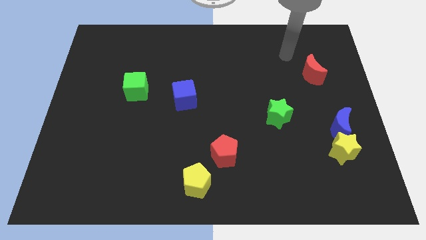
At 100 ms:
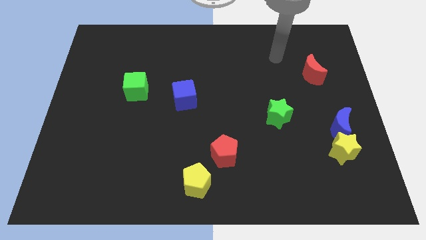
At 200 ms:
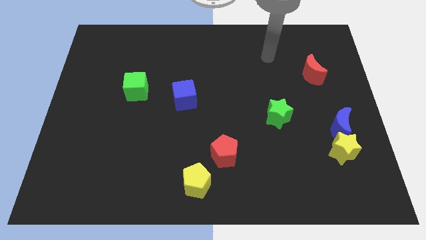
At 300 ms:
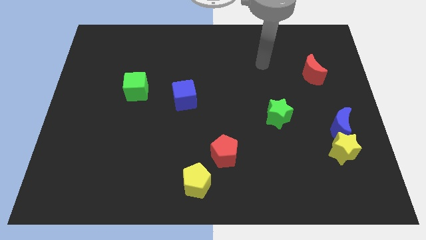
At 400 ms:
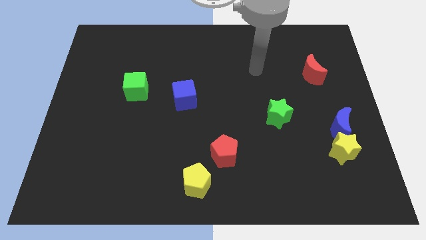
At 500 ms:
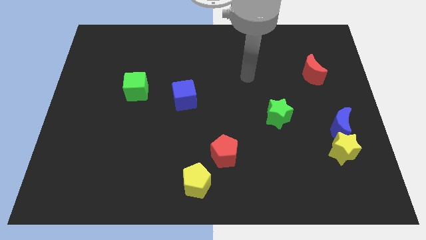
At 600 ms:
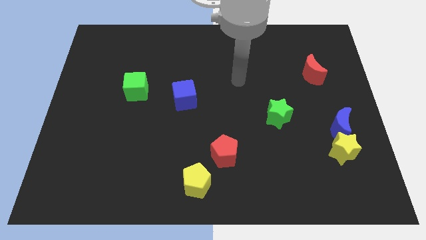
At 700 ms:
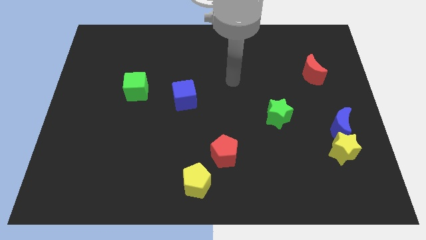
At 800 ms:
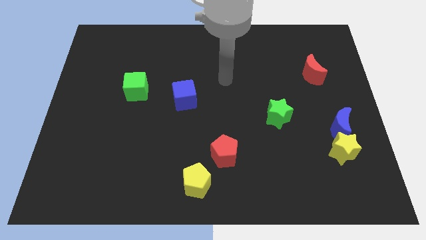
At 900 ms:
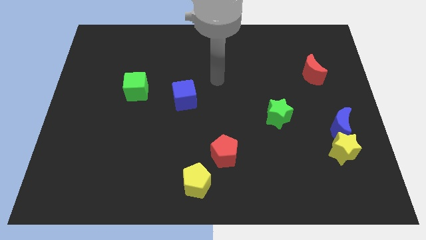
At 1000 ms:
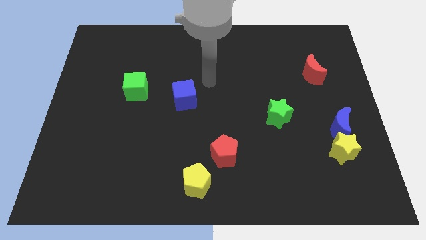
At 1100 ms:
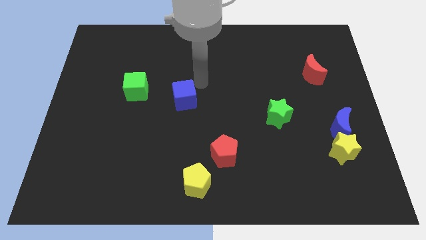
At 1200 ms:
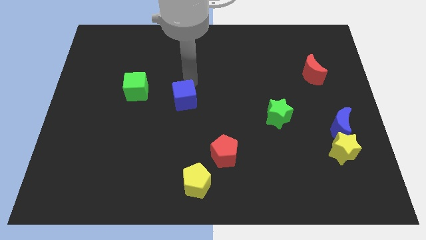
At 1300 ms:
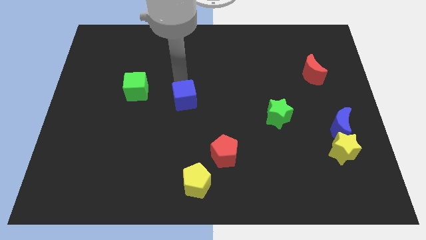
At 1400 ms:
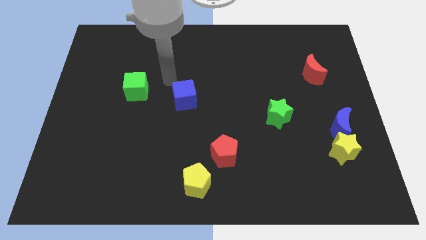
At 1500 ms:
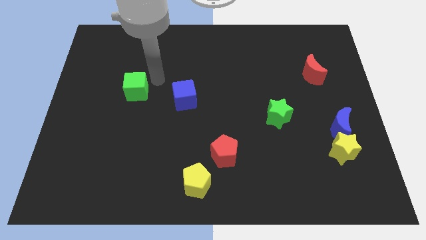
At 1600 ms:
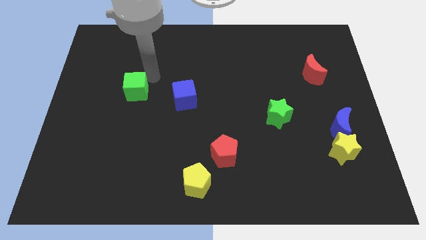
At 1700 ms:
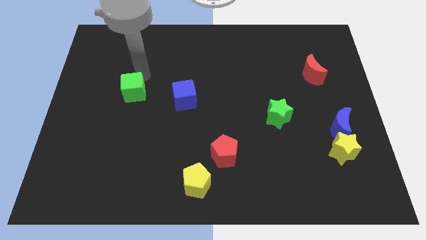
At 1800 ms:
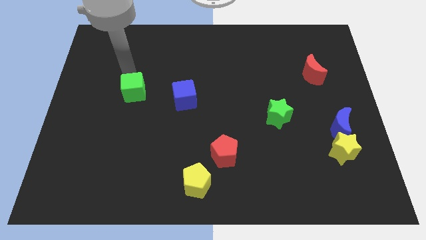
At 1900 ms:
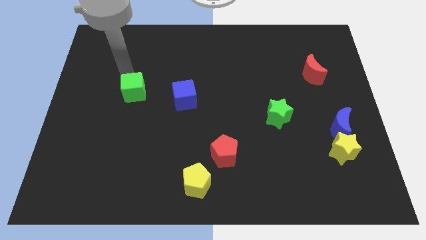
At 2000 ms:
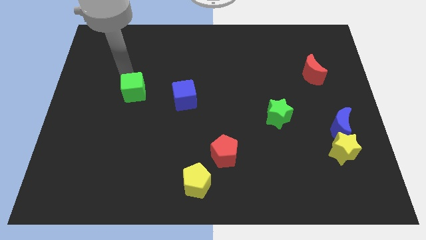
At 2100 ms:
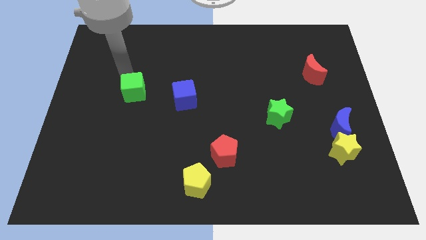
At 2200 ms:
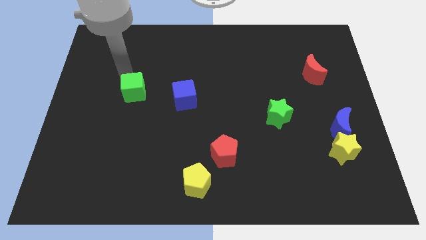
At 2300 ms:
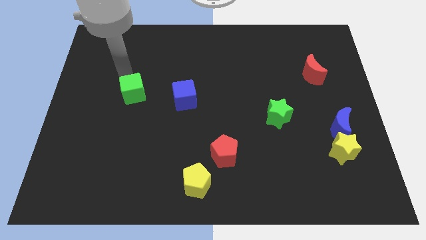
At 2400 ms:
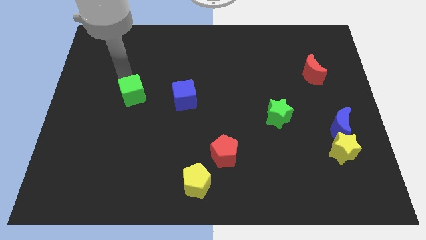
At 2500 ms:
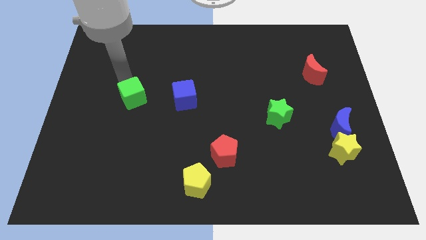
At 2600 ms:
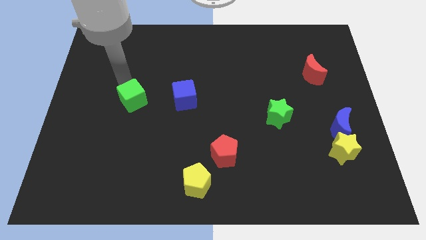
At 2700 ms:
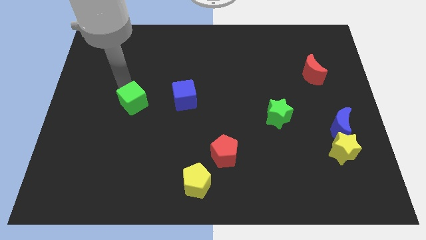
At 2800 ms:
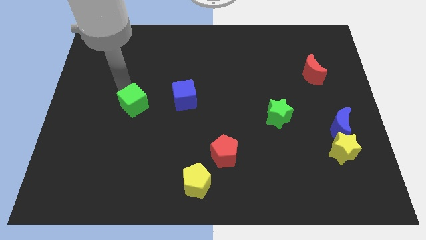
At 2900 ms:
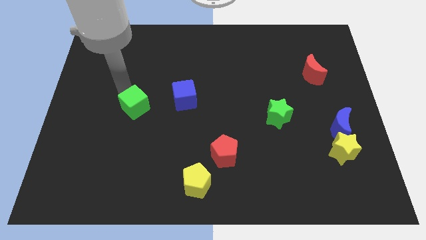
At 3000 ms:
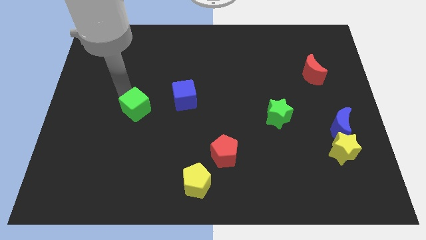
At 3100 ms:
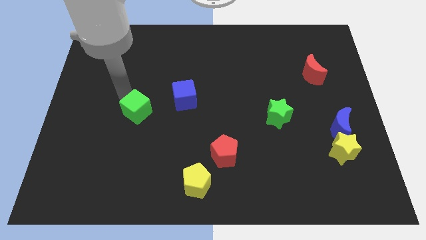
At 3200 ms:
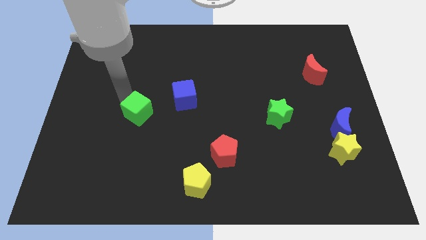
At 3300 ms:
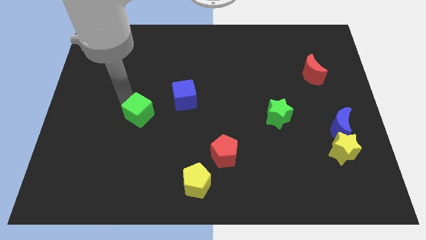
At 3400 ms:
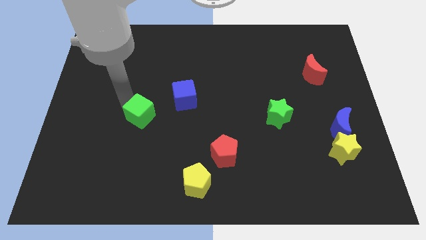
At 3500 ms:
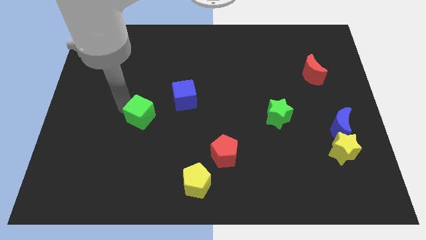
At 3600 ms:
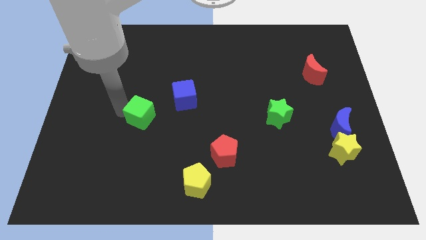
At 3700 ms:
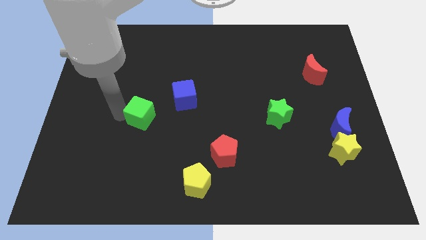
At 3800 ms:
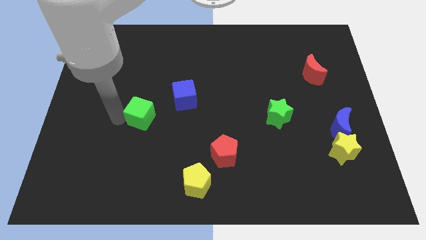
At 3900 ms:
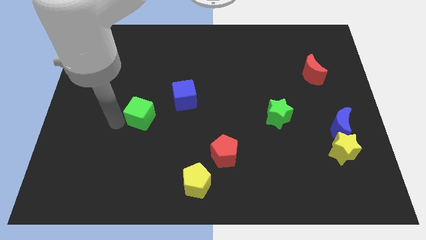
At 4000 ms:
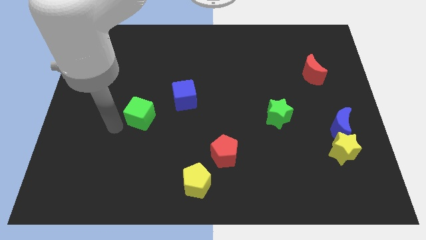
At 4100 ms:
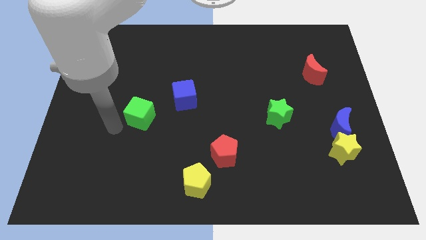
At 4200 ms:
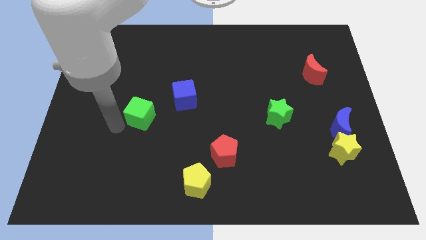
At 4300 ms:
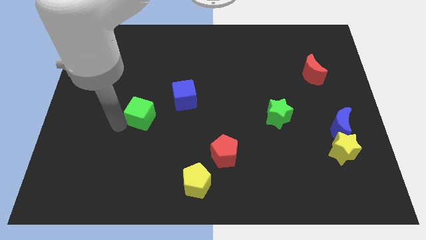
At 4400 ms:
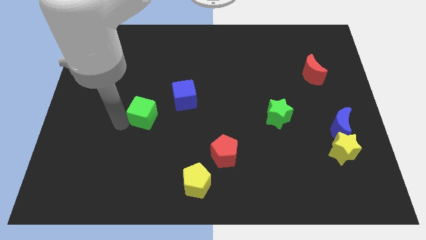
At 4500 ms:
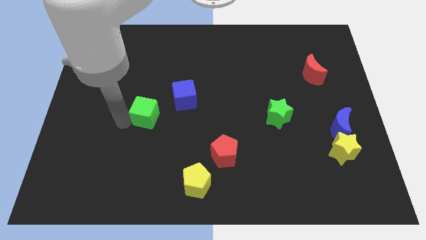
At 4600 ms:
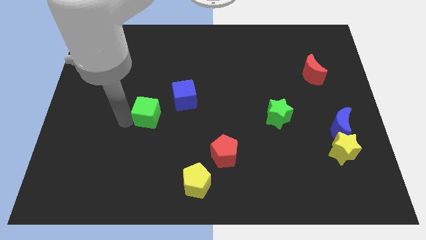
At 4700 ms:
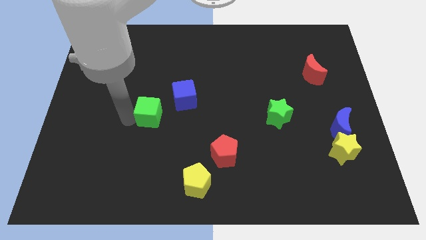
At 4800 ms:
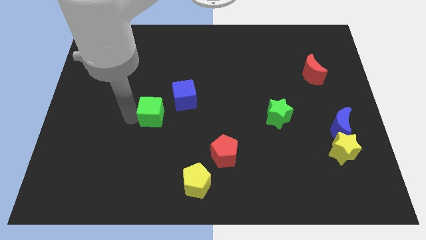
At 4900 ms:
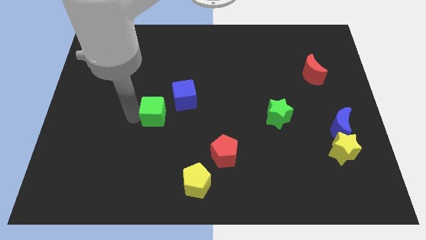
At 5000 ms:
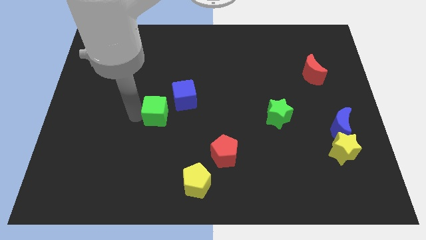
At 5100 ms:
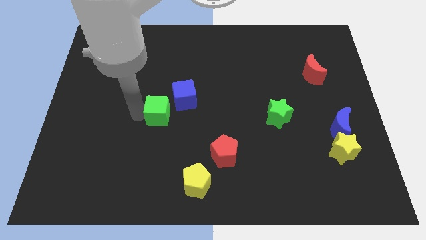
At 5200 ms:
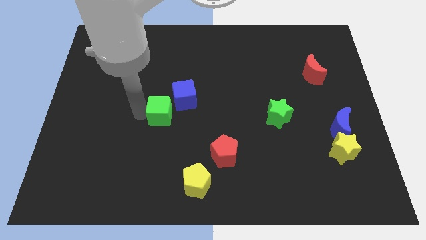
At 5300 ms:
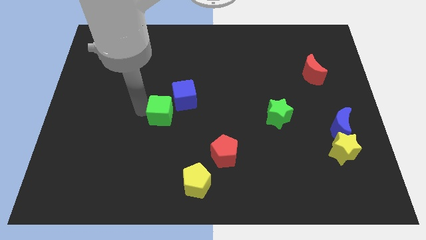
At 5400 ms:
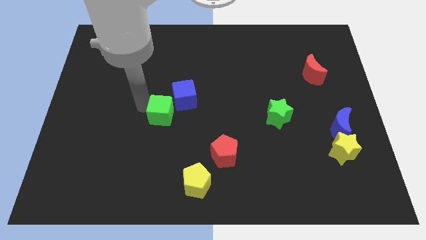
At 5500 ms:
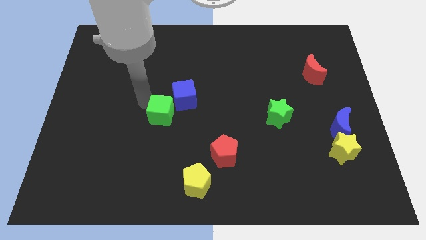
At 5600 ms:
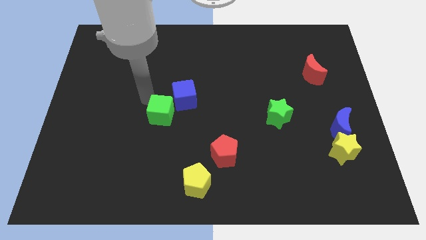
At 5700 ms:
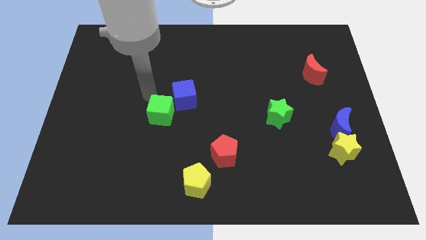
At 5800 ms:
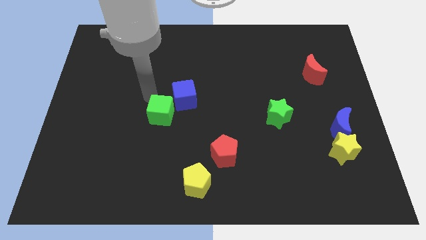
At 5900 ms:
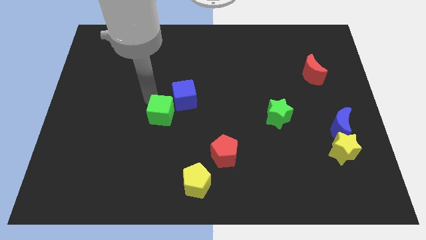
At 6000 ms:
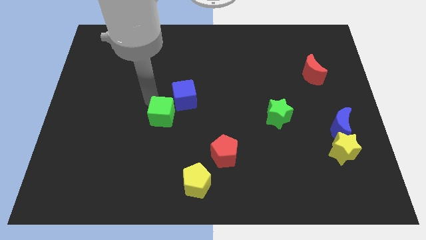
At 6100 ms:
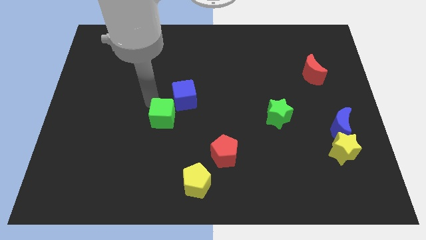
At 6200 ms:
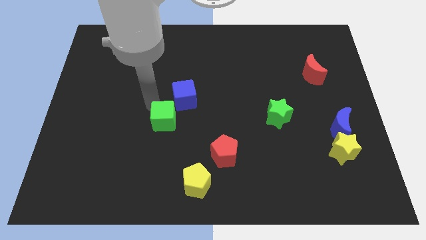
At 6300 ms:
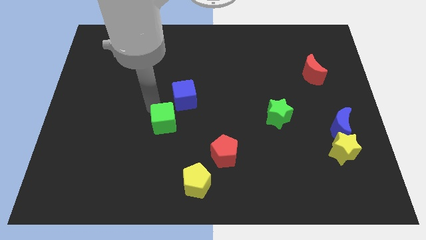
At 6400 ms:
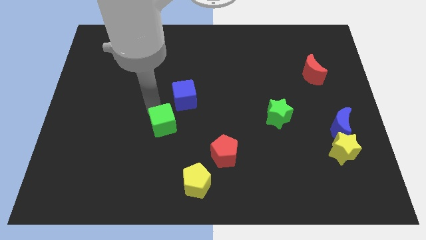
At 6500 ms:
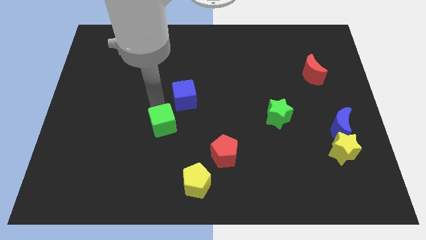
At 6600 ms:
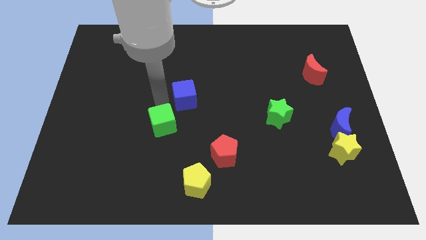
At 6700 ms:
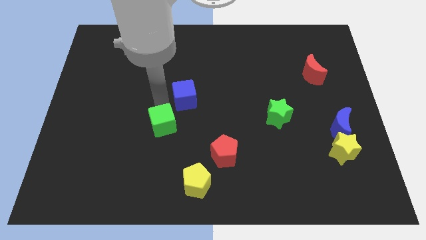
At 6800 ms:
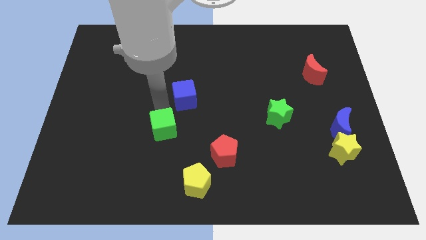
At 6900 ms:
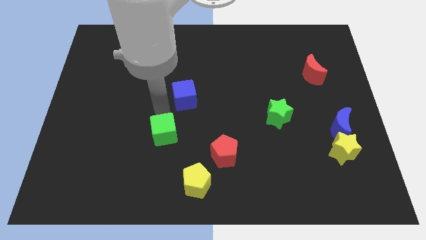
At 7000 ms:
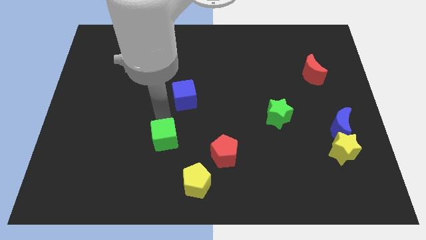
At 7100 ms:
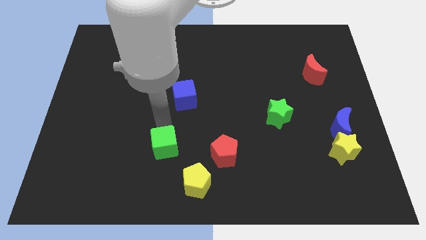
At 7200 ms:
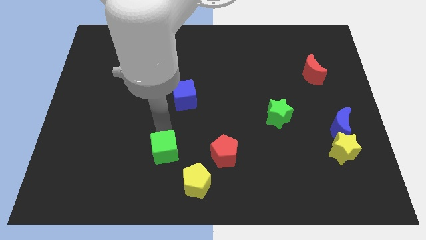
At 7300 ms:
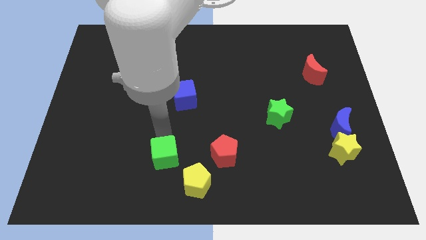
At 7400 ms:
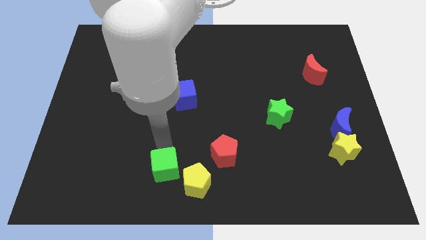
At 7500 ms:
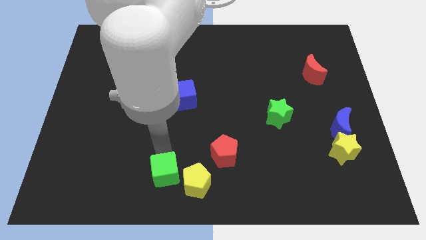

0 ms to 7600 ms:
move the green cube to the bottom side
